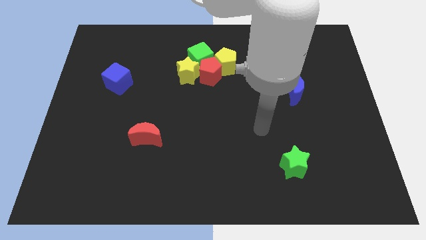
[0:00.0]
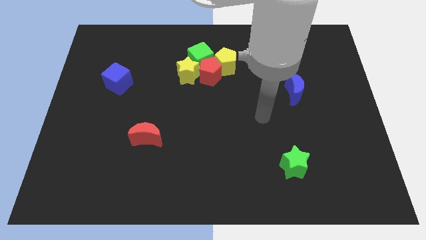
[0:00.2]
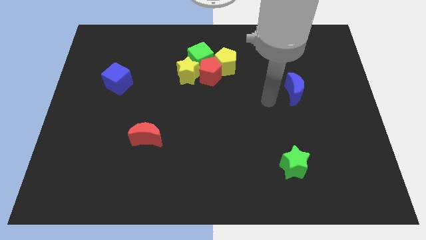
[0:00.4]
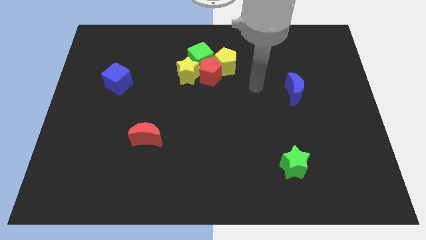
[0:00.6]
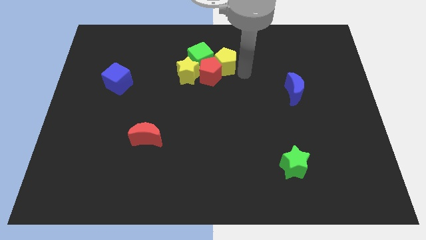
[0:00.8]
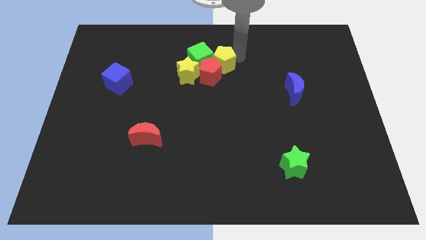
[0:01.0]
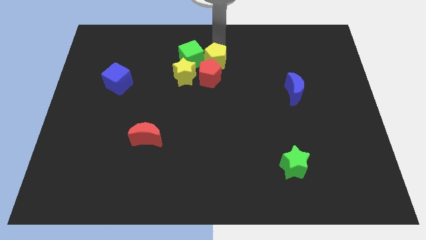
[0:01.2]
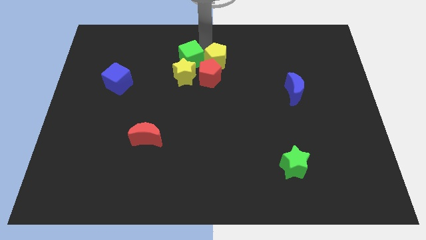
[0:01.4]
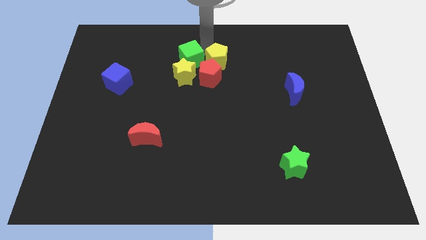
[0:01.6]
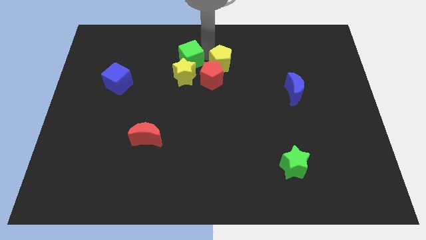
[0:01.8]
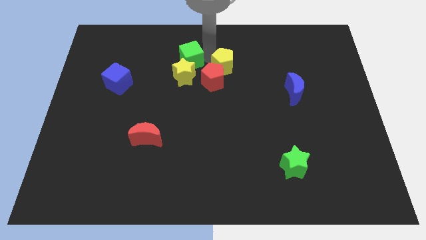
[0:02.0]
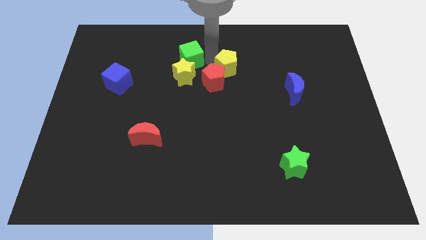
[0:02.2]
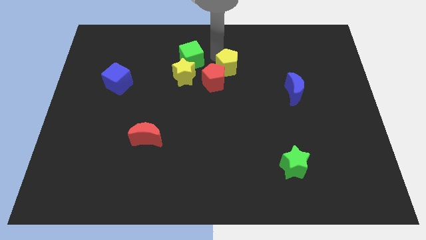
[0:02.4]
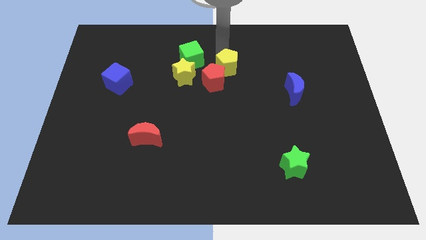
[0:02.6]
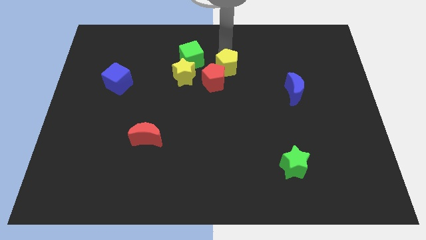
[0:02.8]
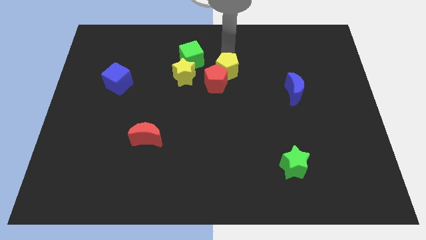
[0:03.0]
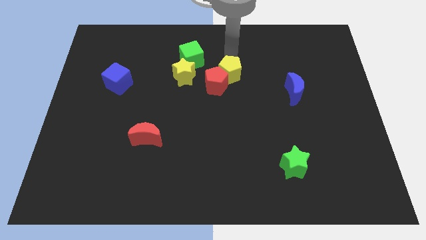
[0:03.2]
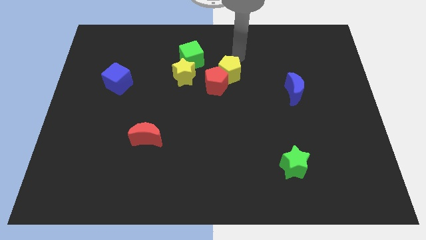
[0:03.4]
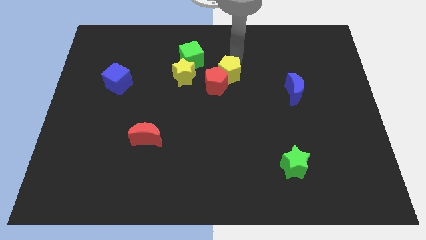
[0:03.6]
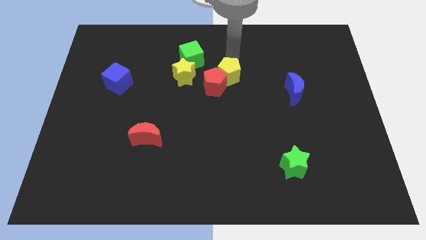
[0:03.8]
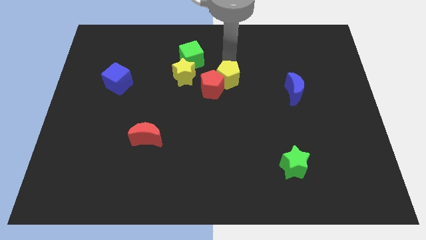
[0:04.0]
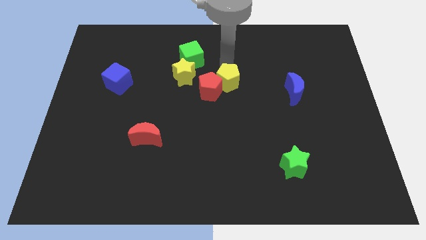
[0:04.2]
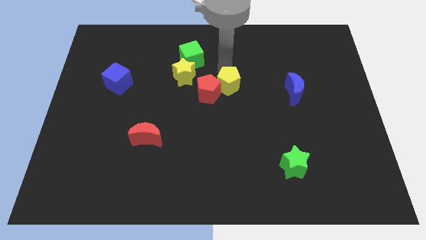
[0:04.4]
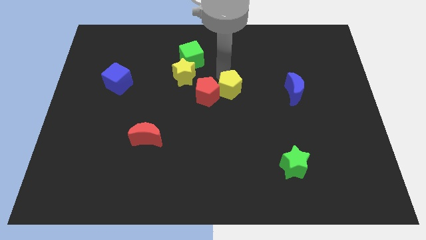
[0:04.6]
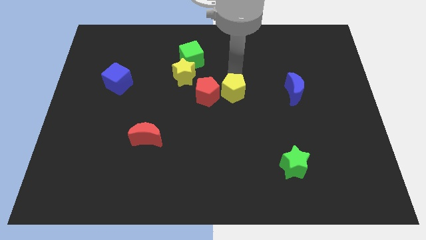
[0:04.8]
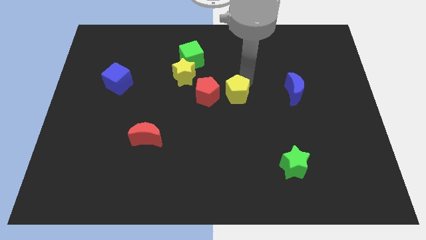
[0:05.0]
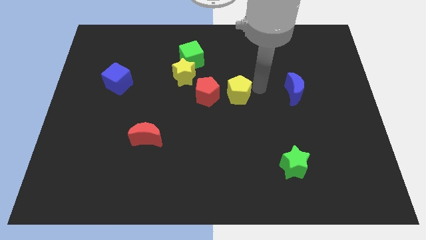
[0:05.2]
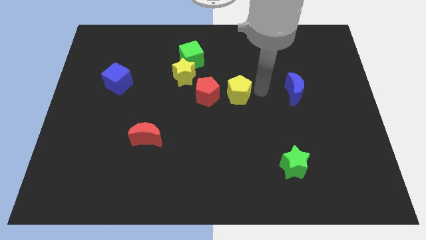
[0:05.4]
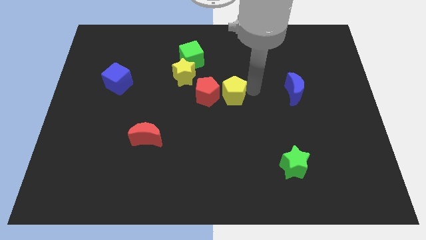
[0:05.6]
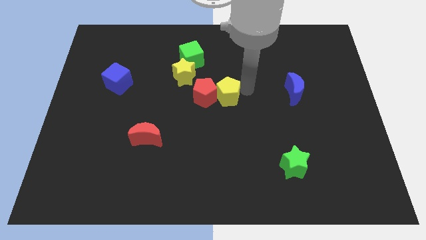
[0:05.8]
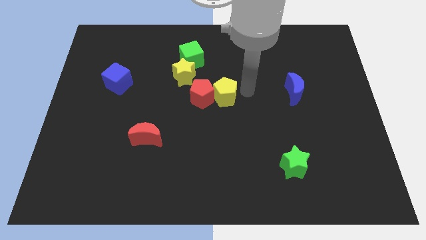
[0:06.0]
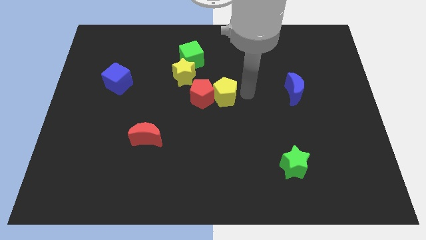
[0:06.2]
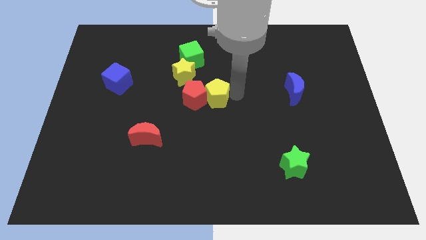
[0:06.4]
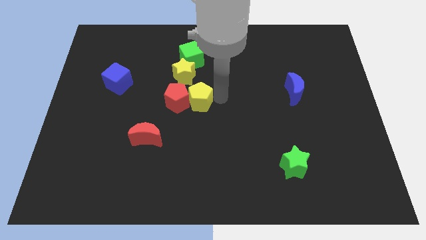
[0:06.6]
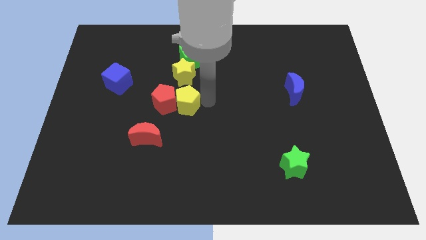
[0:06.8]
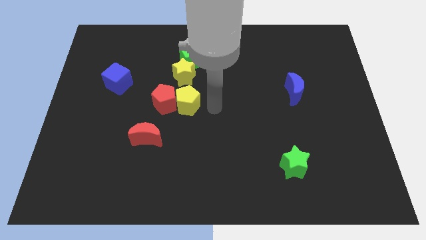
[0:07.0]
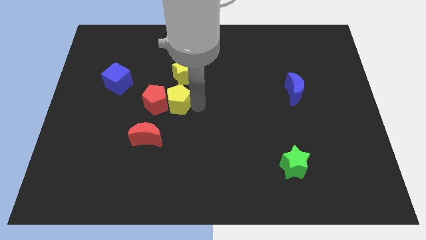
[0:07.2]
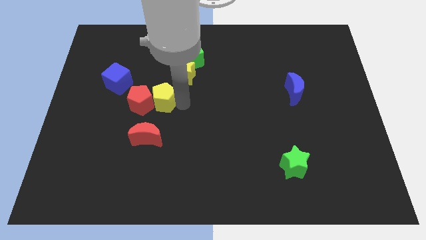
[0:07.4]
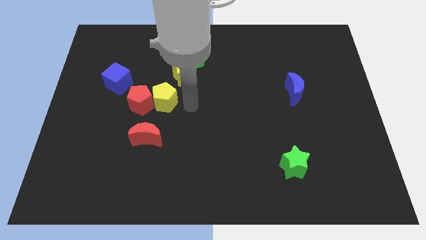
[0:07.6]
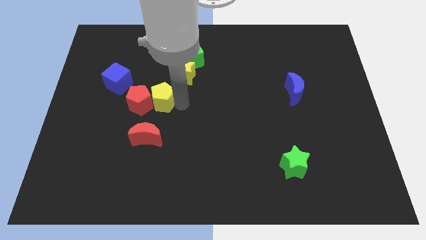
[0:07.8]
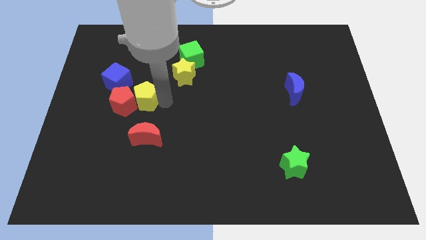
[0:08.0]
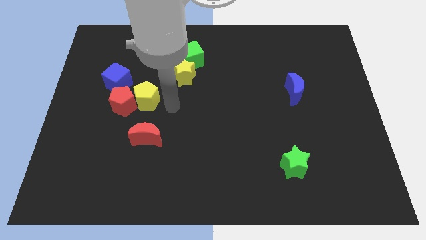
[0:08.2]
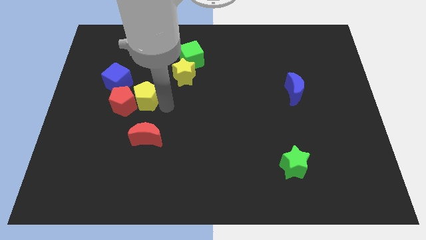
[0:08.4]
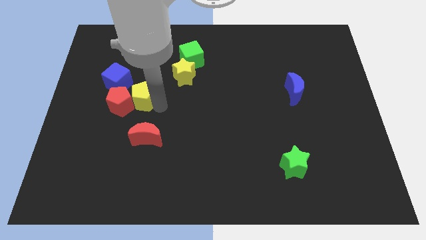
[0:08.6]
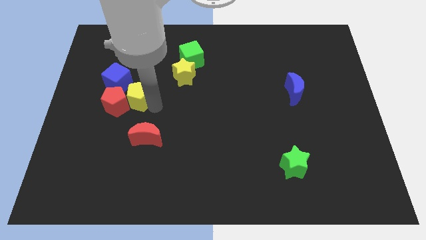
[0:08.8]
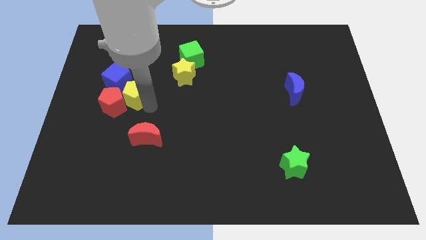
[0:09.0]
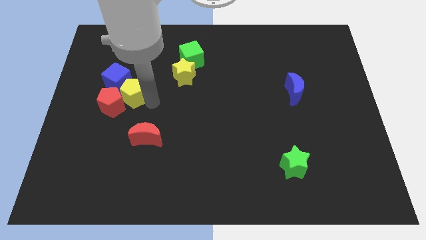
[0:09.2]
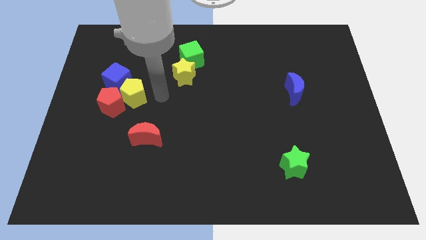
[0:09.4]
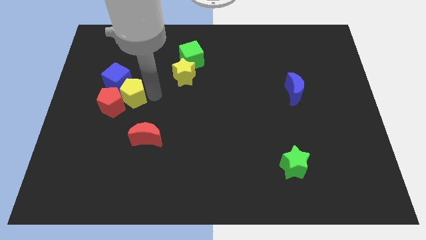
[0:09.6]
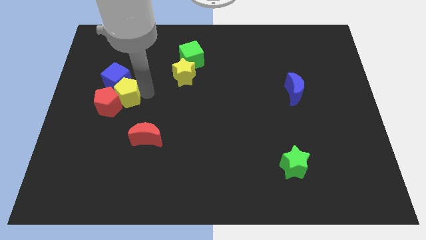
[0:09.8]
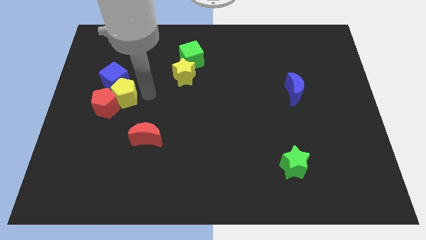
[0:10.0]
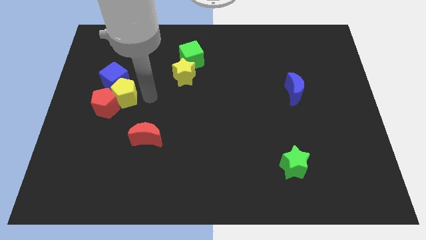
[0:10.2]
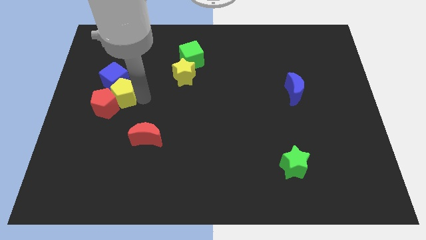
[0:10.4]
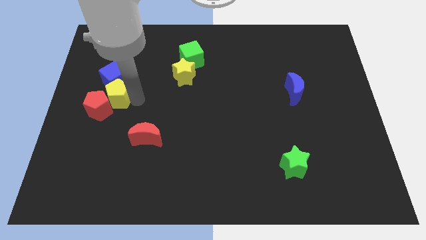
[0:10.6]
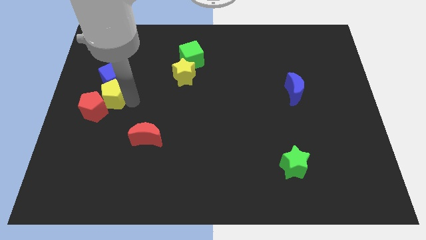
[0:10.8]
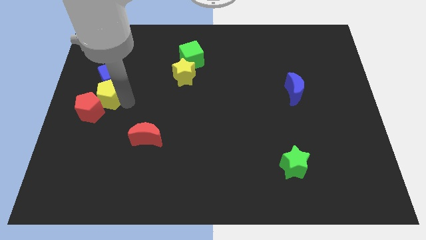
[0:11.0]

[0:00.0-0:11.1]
slide the yellow pentagon to the left side

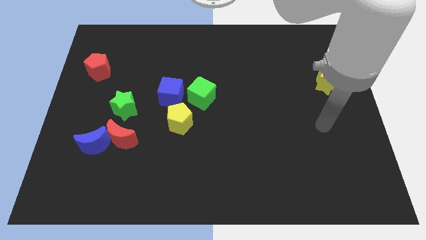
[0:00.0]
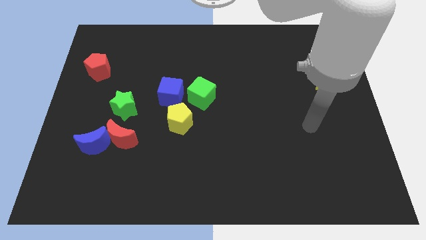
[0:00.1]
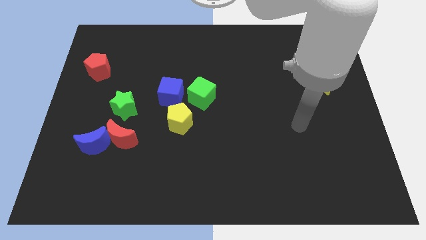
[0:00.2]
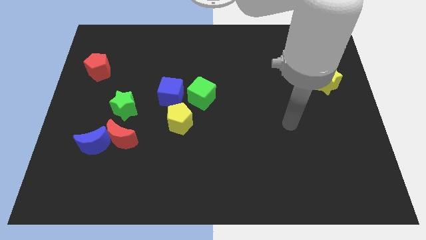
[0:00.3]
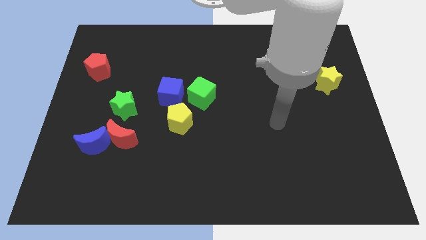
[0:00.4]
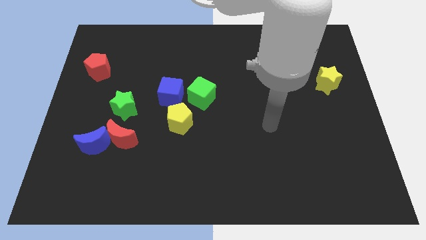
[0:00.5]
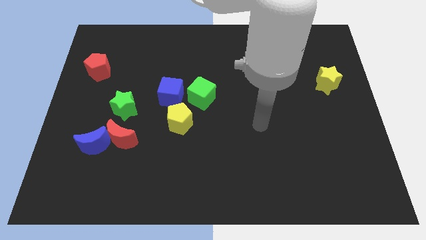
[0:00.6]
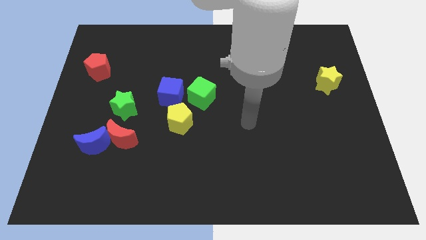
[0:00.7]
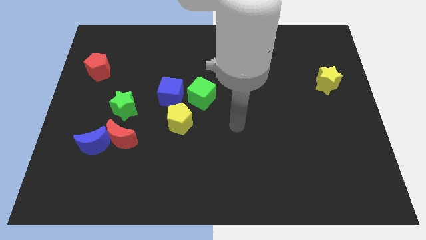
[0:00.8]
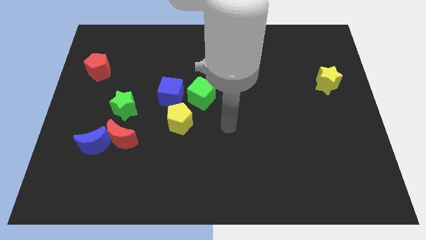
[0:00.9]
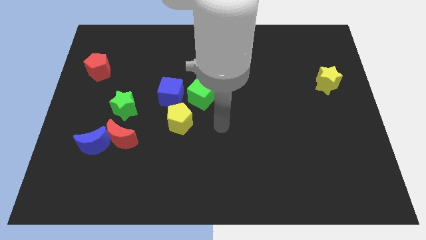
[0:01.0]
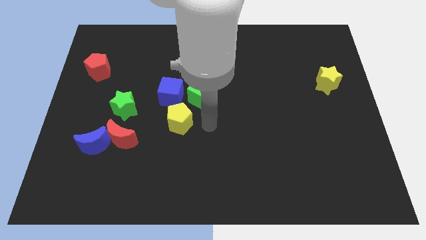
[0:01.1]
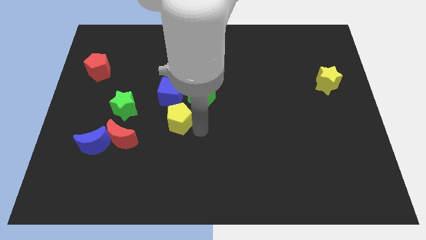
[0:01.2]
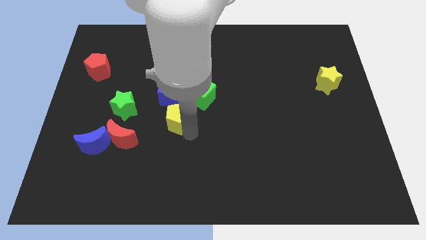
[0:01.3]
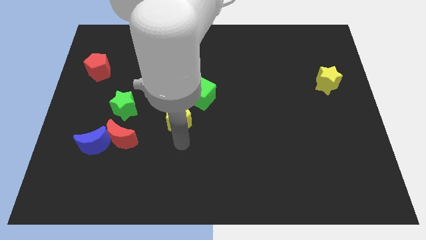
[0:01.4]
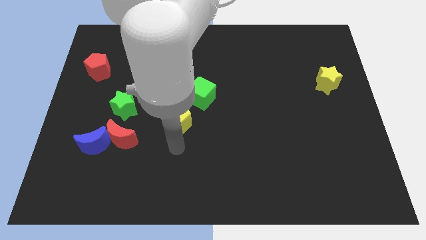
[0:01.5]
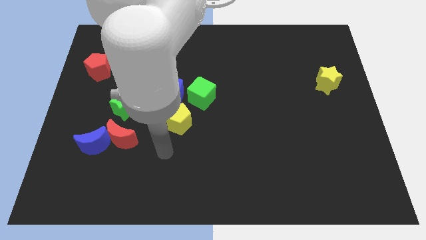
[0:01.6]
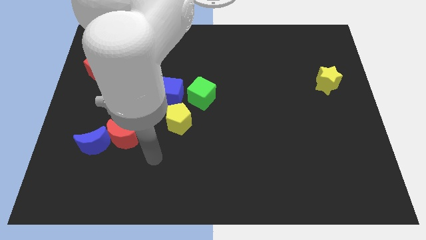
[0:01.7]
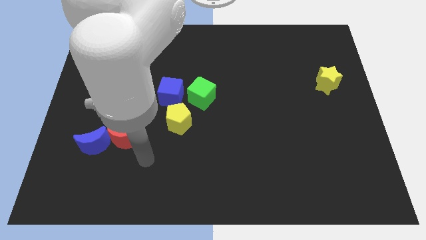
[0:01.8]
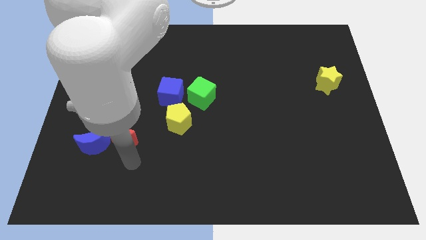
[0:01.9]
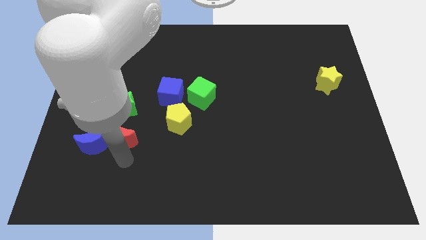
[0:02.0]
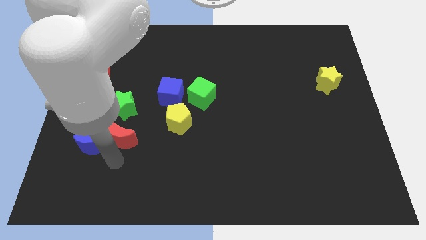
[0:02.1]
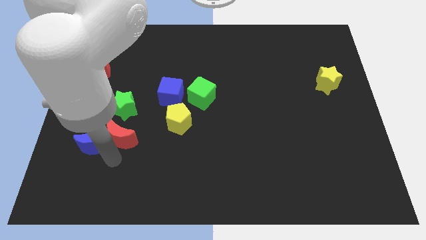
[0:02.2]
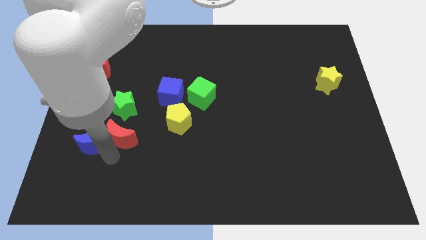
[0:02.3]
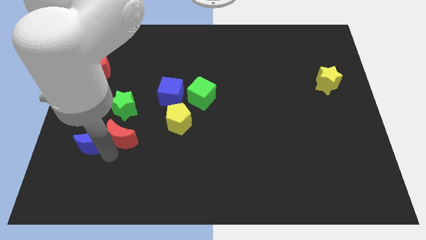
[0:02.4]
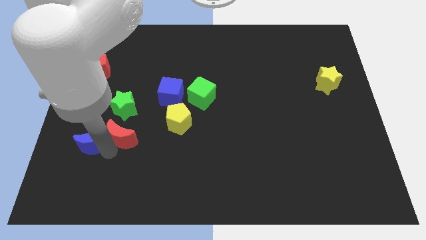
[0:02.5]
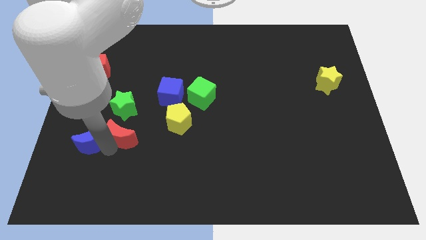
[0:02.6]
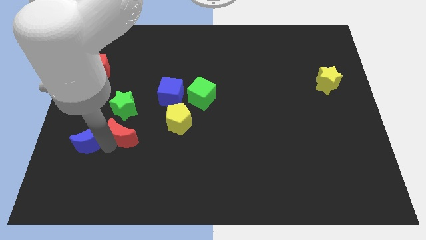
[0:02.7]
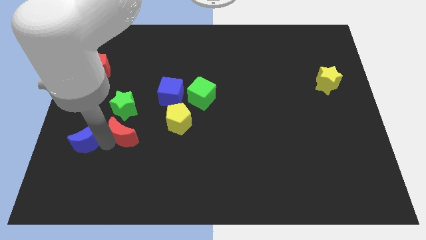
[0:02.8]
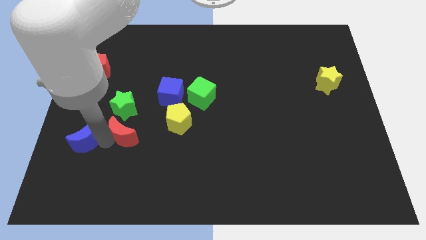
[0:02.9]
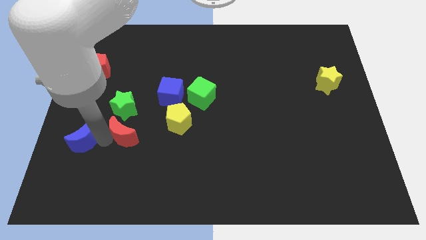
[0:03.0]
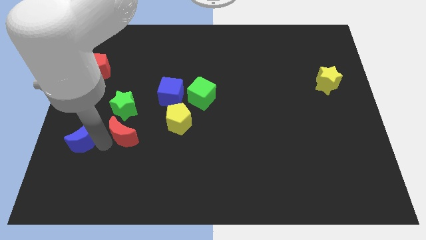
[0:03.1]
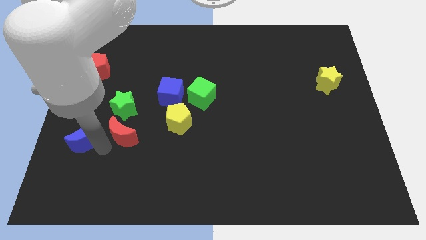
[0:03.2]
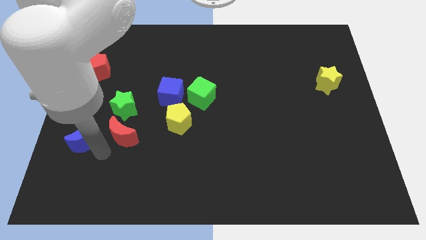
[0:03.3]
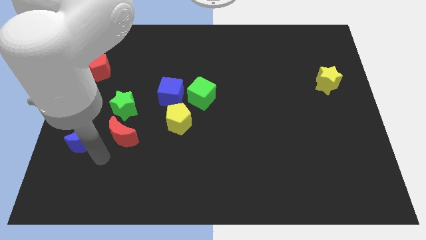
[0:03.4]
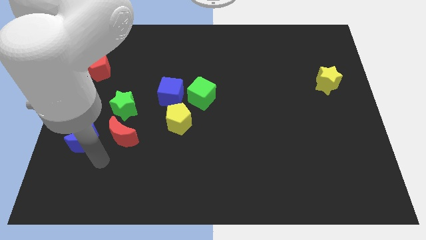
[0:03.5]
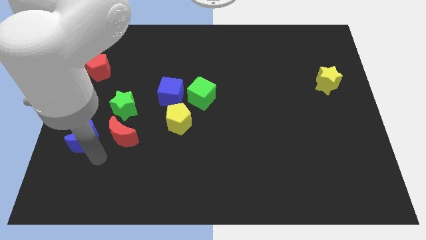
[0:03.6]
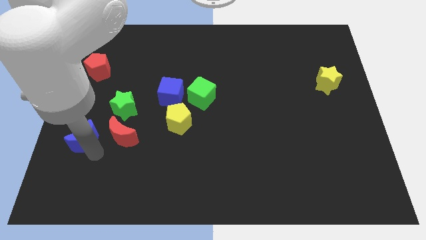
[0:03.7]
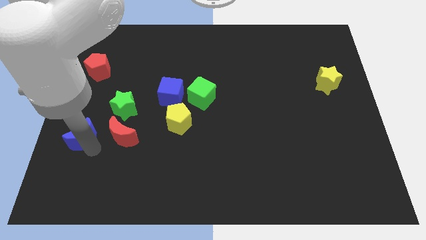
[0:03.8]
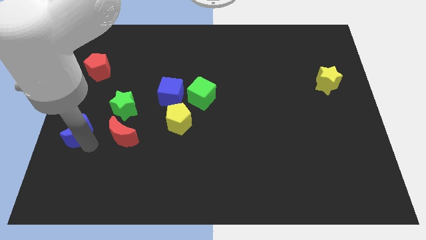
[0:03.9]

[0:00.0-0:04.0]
move the blue moon to the left side of the board
